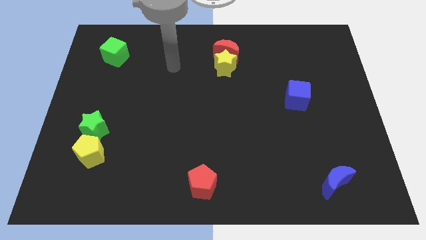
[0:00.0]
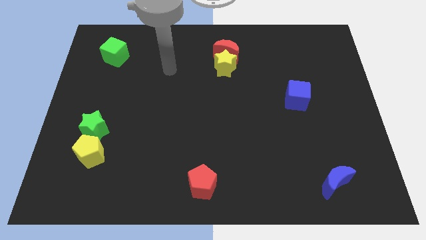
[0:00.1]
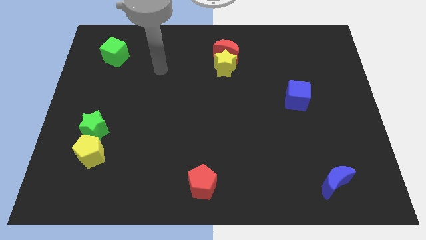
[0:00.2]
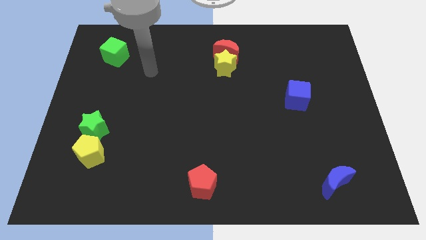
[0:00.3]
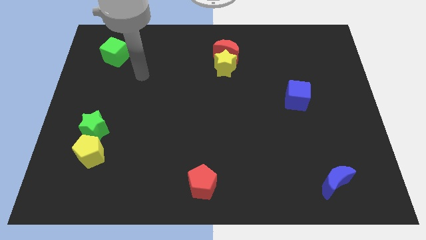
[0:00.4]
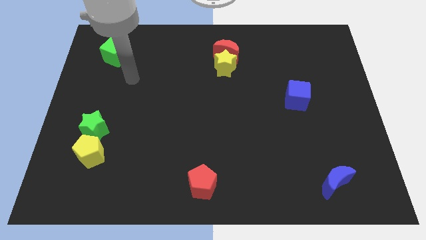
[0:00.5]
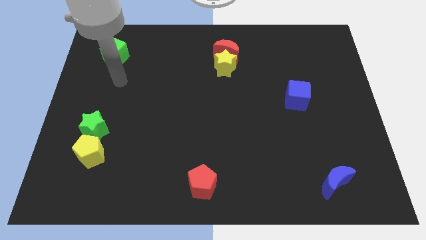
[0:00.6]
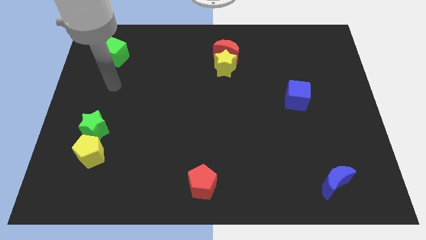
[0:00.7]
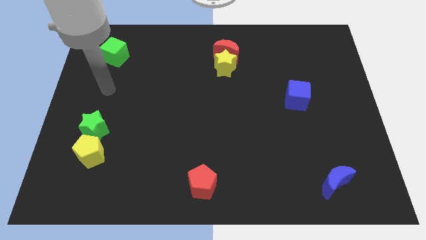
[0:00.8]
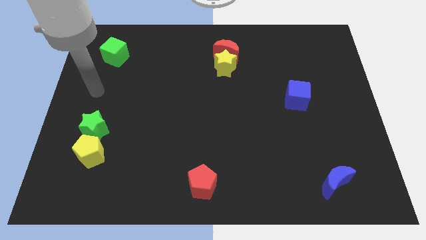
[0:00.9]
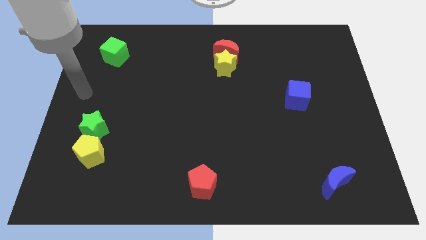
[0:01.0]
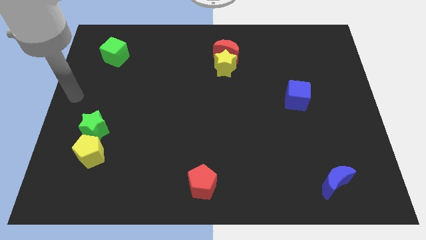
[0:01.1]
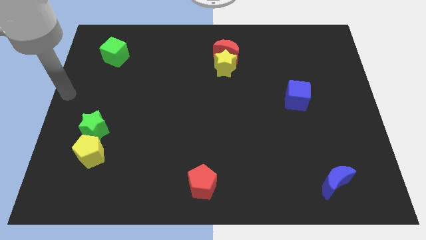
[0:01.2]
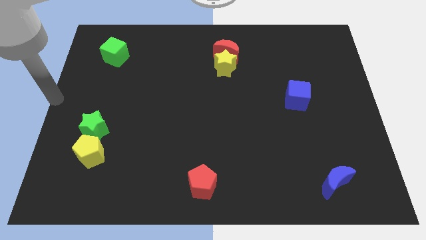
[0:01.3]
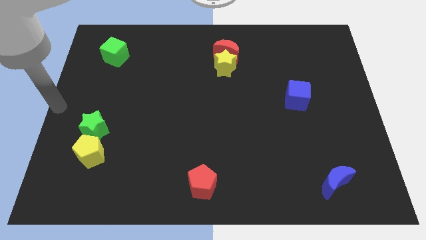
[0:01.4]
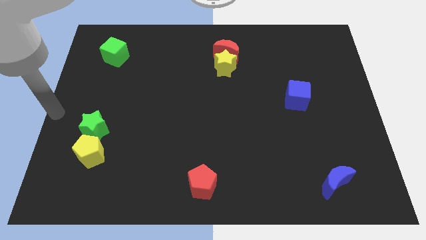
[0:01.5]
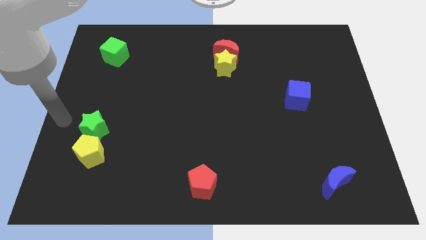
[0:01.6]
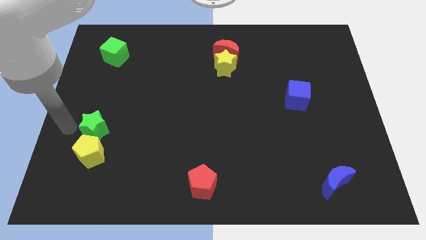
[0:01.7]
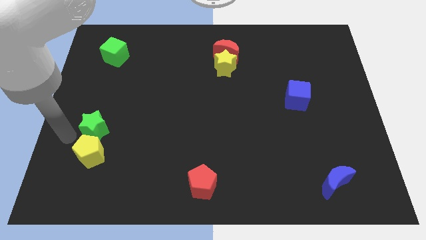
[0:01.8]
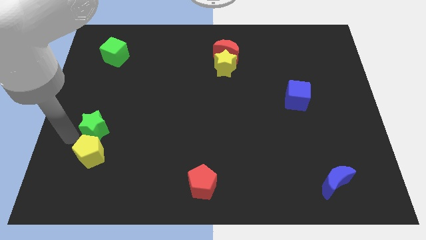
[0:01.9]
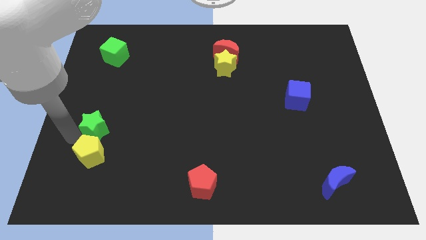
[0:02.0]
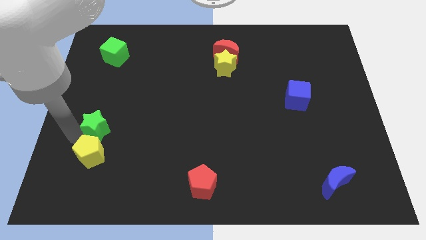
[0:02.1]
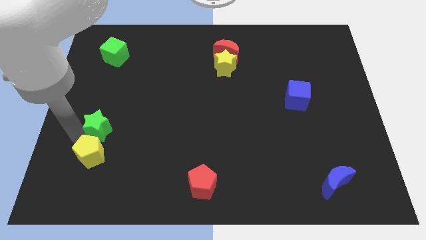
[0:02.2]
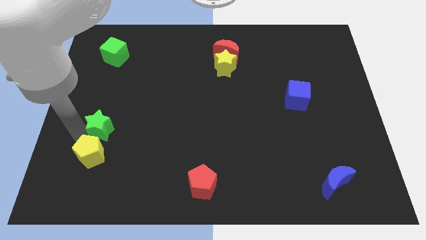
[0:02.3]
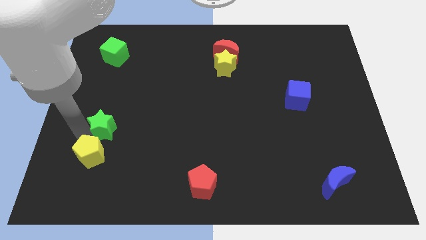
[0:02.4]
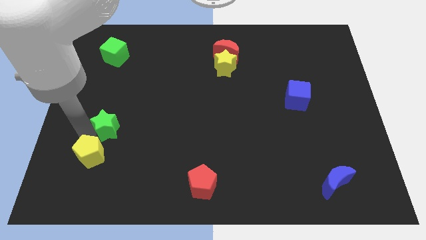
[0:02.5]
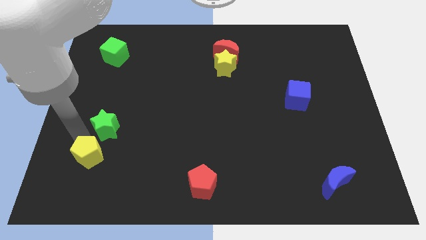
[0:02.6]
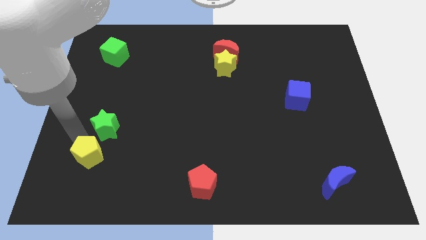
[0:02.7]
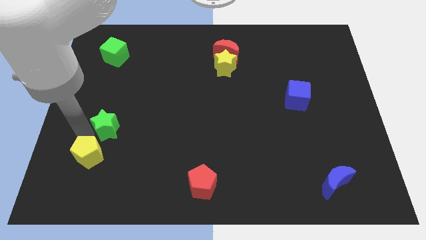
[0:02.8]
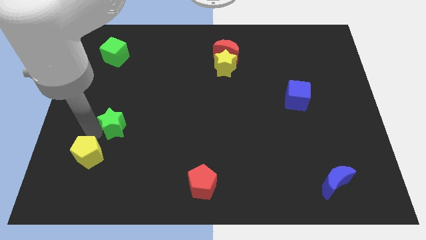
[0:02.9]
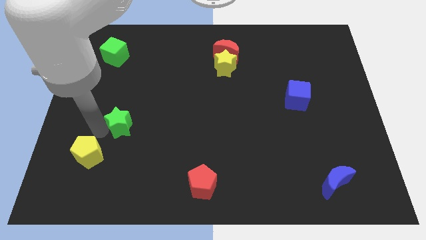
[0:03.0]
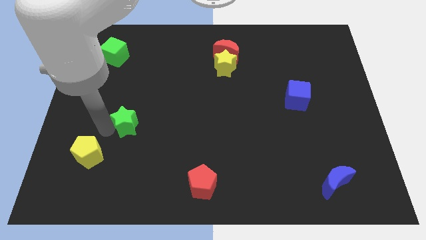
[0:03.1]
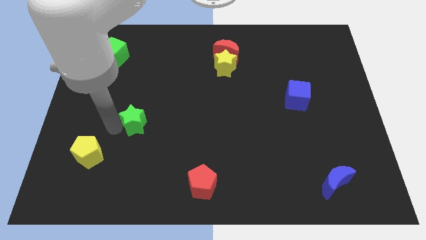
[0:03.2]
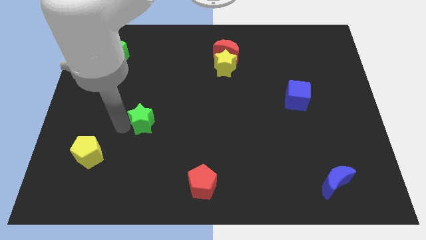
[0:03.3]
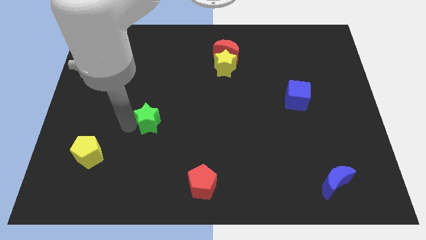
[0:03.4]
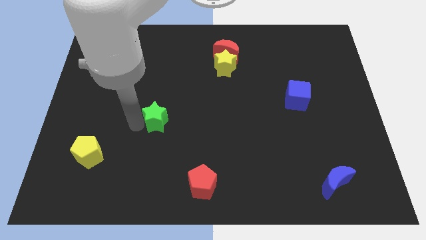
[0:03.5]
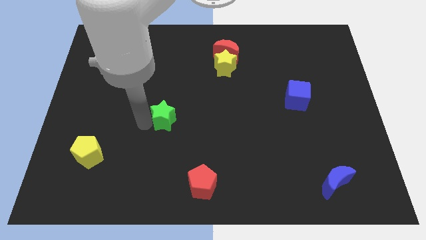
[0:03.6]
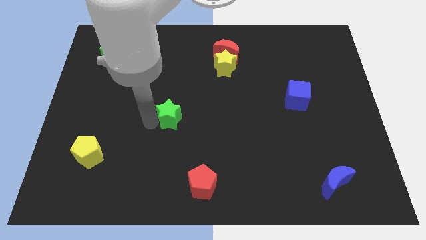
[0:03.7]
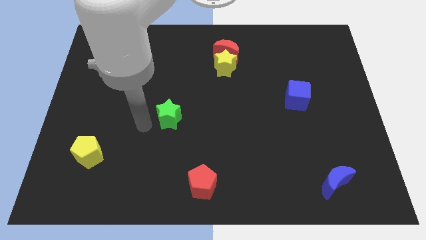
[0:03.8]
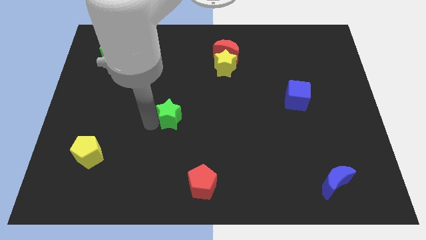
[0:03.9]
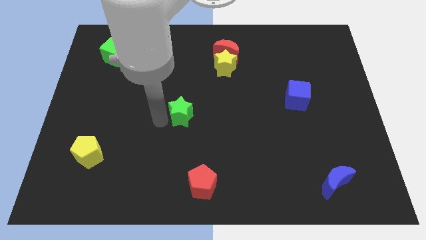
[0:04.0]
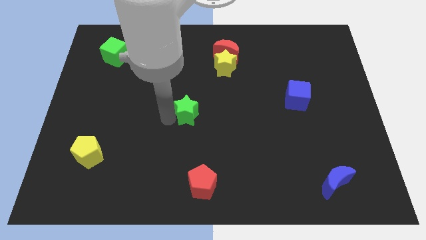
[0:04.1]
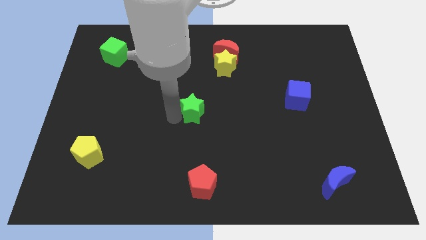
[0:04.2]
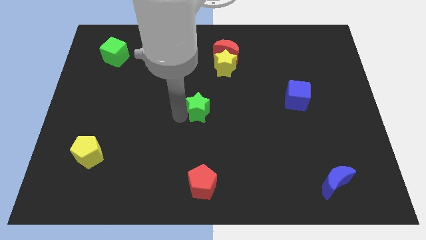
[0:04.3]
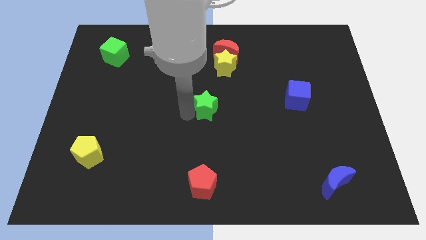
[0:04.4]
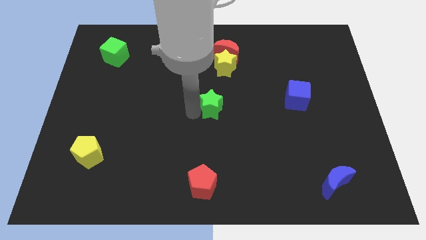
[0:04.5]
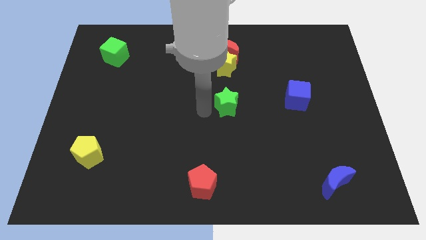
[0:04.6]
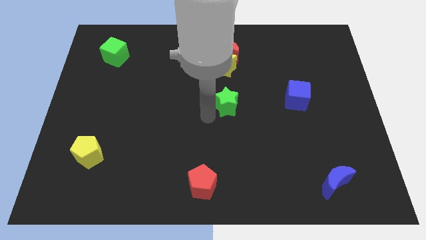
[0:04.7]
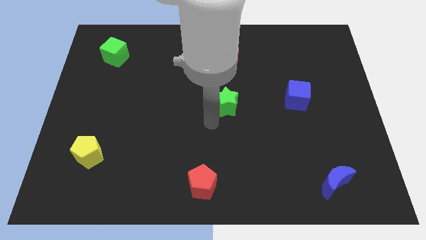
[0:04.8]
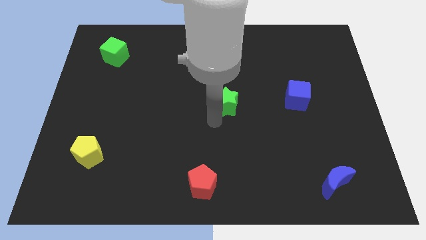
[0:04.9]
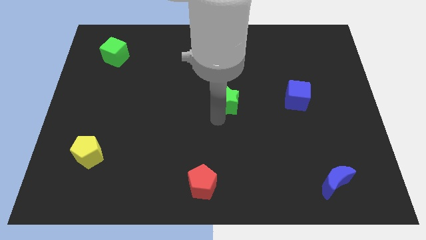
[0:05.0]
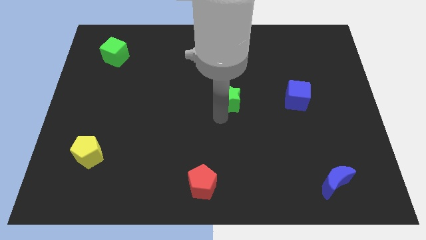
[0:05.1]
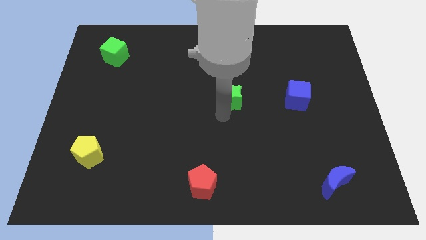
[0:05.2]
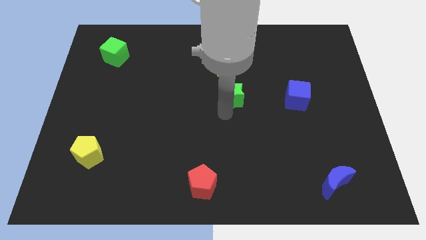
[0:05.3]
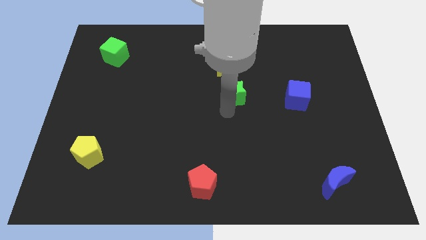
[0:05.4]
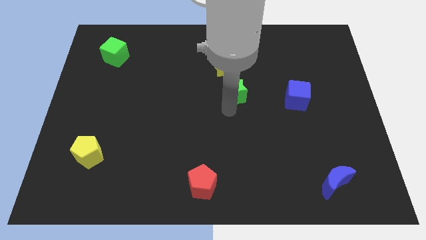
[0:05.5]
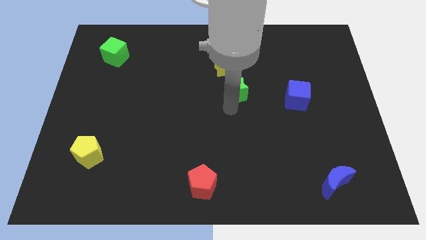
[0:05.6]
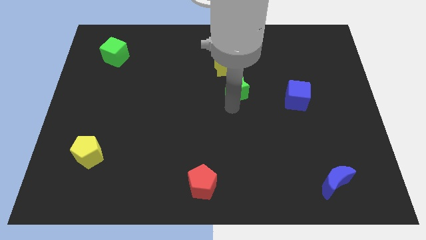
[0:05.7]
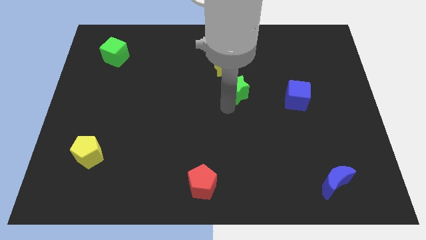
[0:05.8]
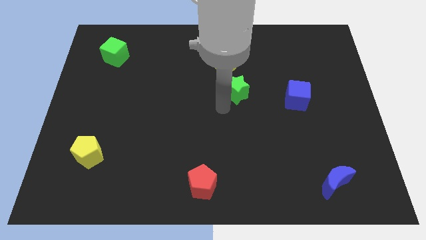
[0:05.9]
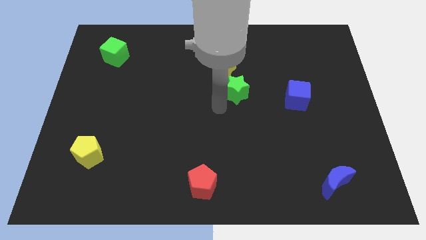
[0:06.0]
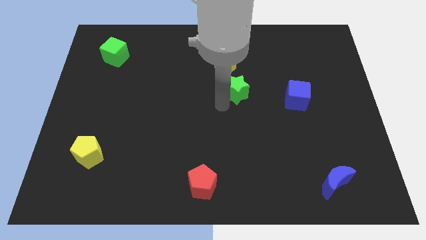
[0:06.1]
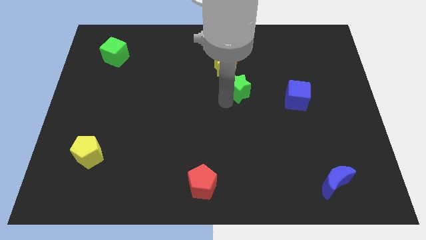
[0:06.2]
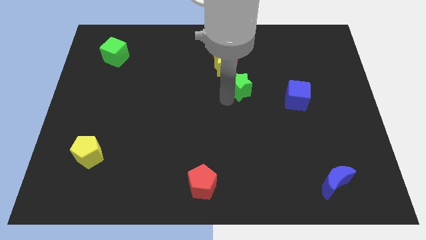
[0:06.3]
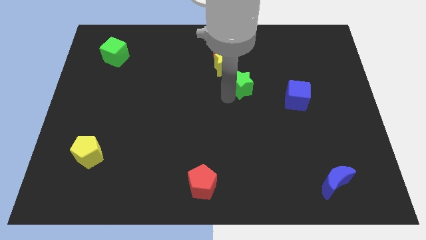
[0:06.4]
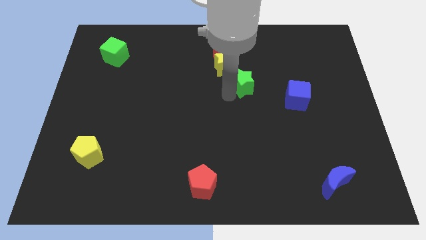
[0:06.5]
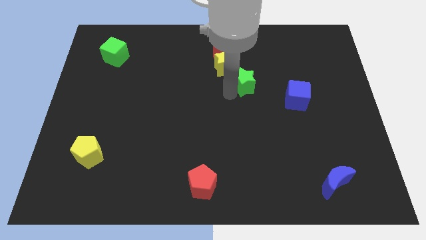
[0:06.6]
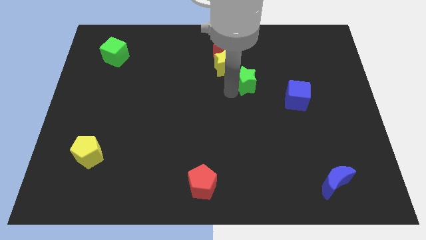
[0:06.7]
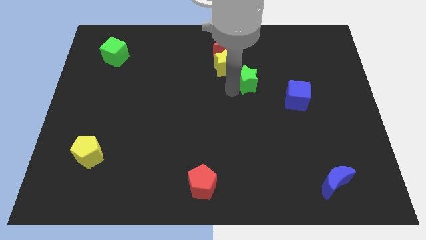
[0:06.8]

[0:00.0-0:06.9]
move the green star to the right of the yellow star

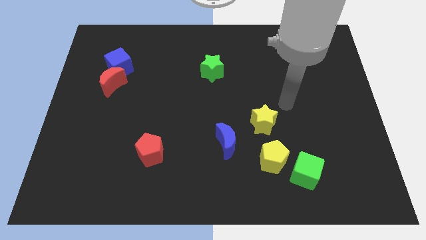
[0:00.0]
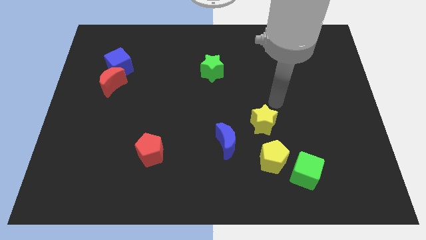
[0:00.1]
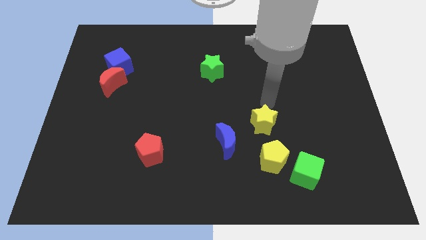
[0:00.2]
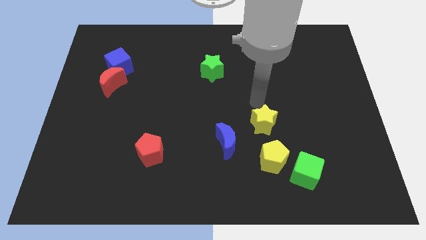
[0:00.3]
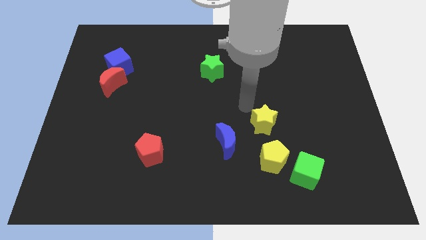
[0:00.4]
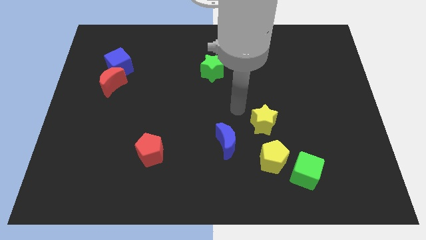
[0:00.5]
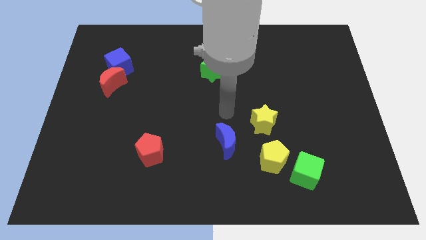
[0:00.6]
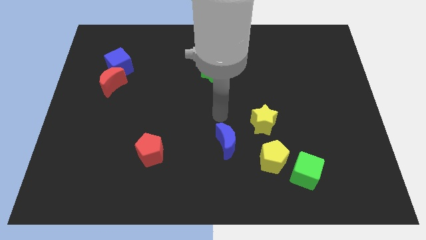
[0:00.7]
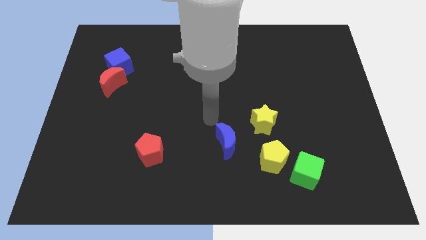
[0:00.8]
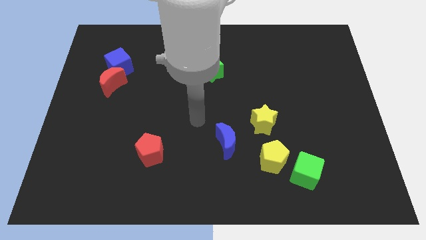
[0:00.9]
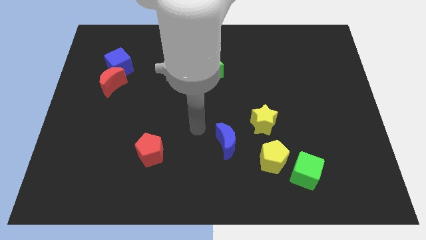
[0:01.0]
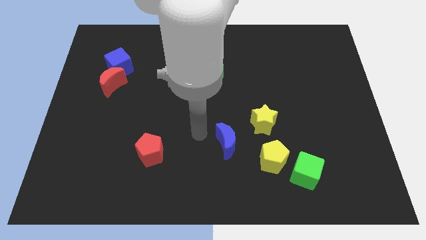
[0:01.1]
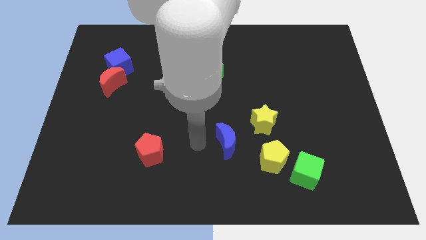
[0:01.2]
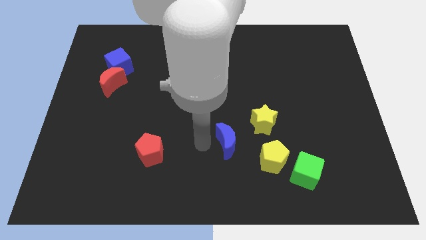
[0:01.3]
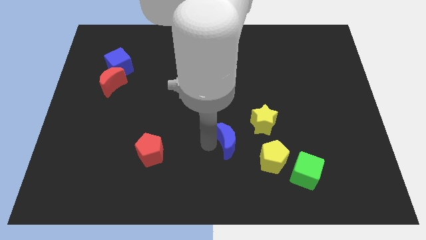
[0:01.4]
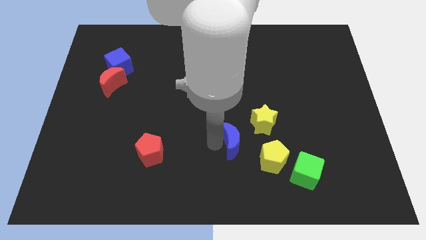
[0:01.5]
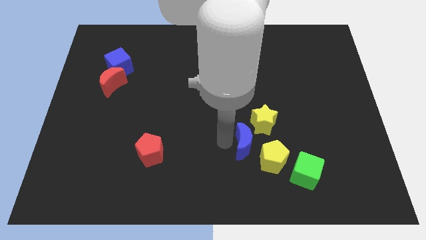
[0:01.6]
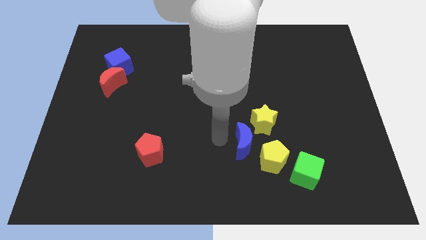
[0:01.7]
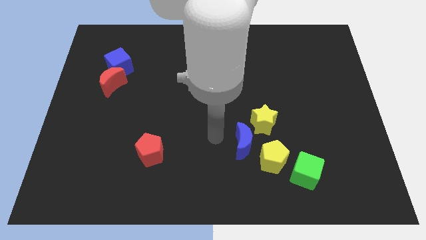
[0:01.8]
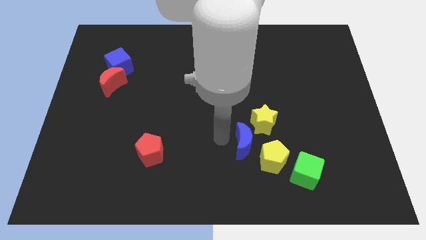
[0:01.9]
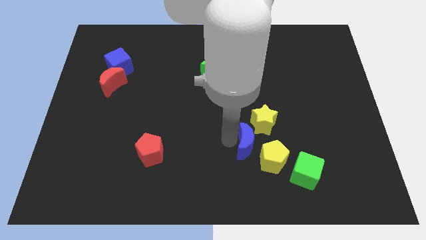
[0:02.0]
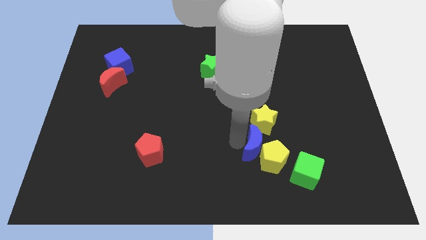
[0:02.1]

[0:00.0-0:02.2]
move the blue moon diagonally up and to the left of the green cube
